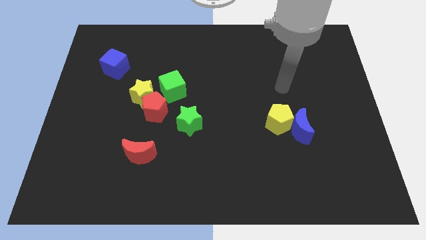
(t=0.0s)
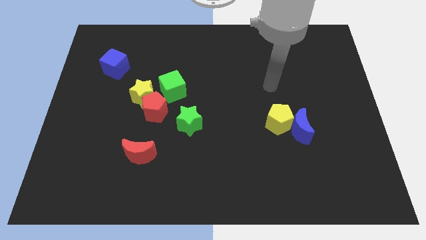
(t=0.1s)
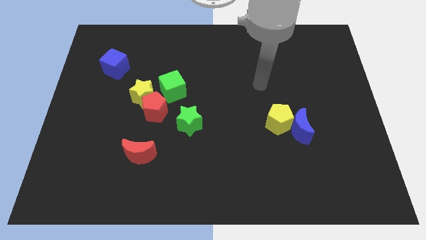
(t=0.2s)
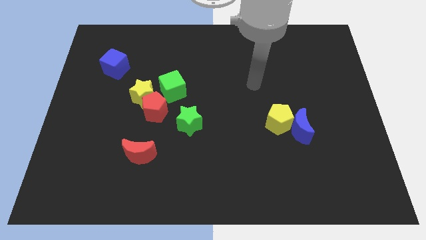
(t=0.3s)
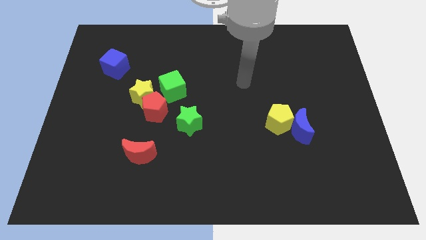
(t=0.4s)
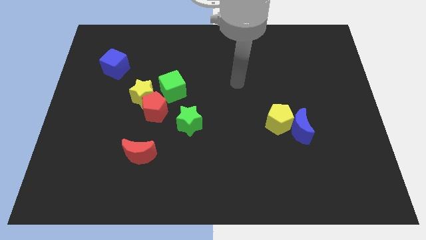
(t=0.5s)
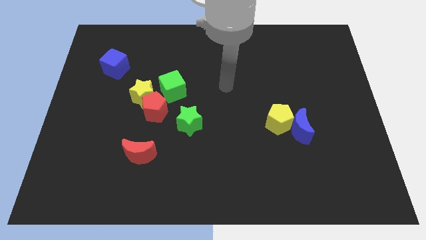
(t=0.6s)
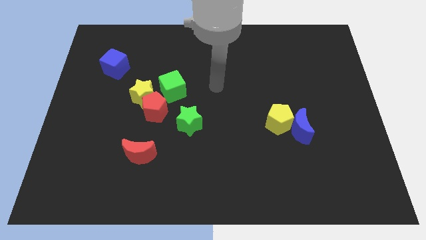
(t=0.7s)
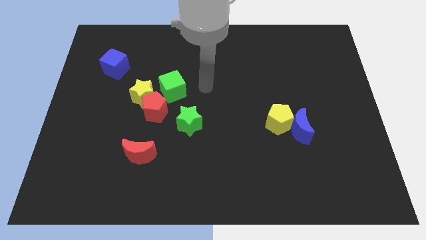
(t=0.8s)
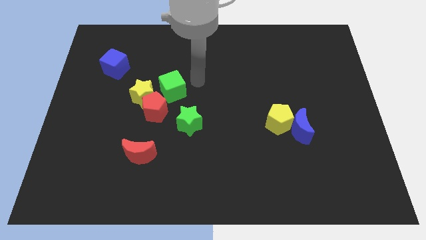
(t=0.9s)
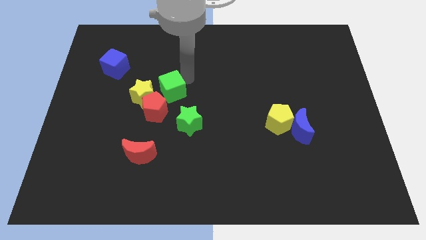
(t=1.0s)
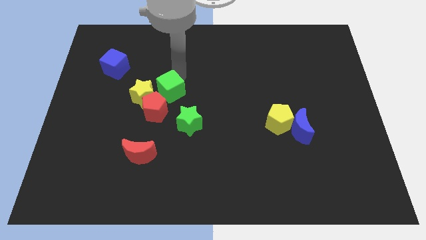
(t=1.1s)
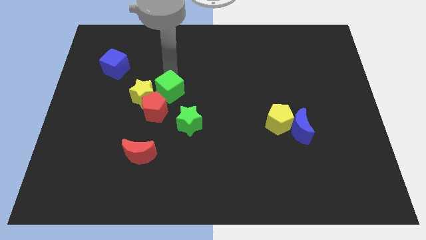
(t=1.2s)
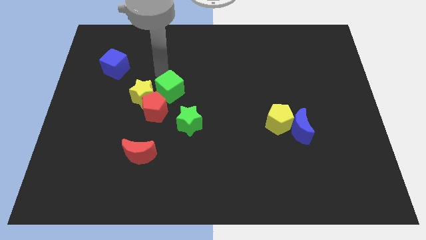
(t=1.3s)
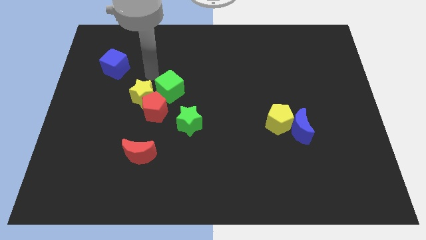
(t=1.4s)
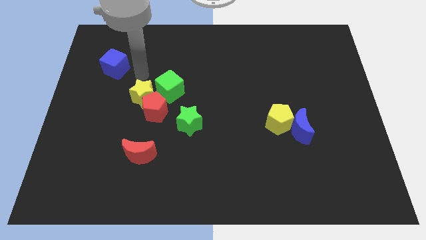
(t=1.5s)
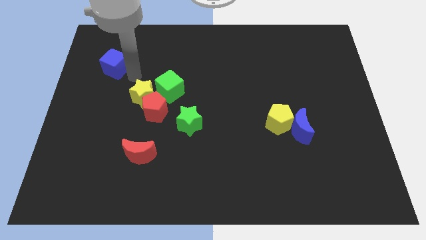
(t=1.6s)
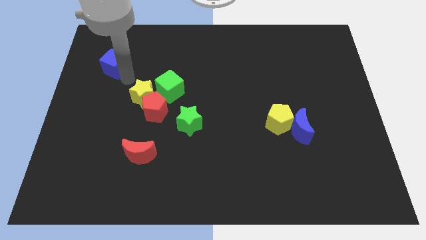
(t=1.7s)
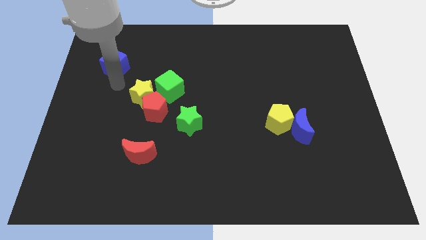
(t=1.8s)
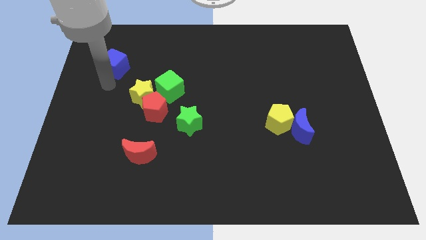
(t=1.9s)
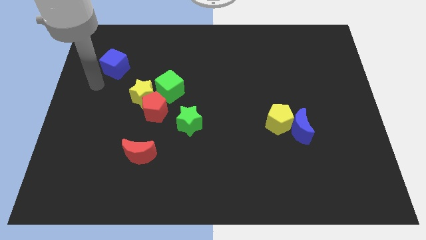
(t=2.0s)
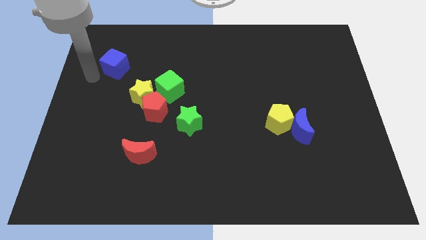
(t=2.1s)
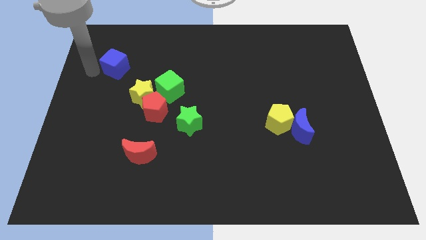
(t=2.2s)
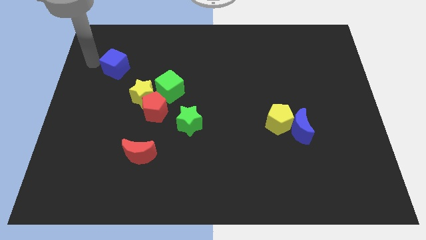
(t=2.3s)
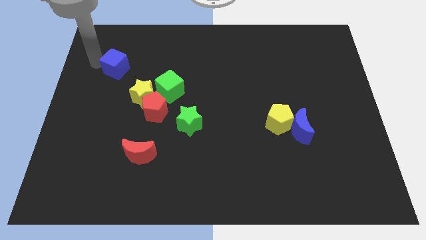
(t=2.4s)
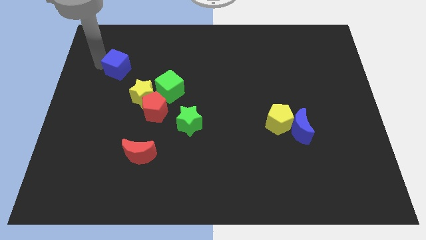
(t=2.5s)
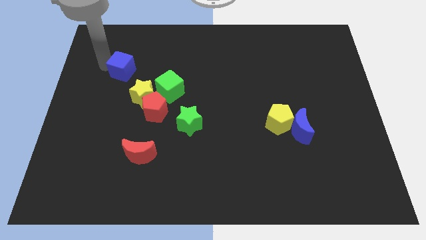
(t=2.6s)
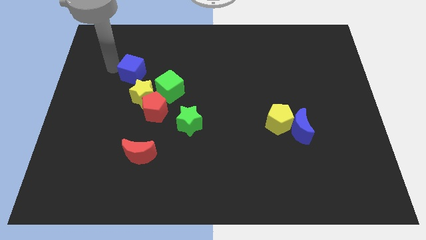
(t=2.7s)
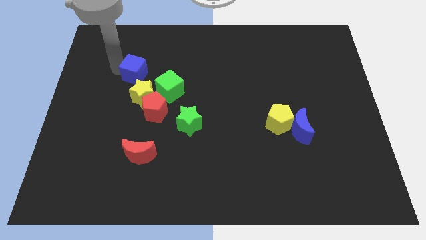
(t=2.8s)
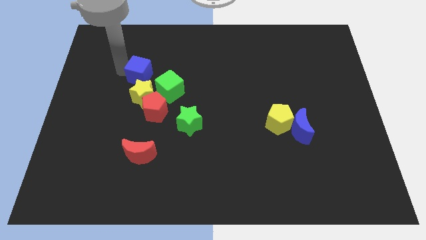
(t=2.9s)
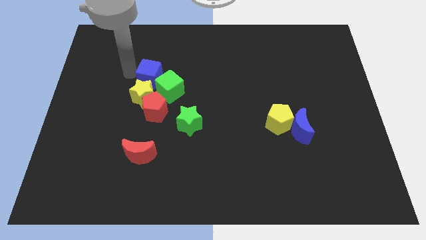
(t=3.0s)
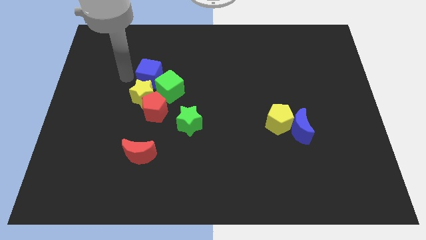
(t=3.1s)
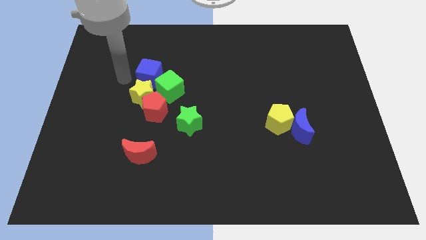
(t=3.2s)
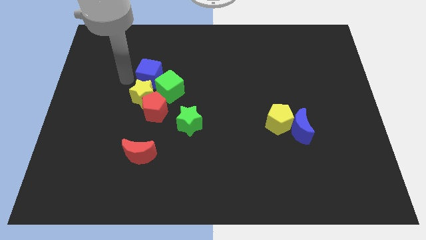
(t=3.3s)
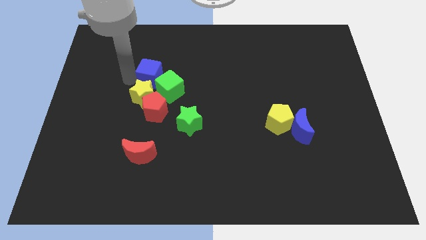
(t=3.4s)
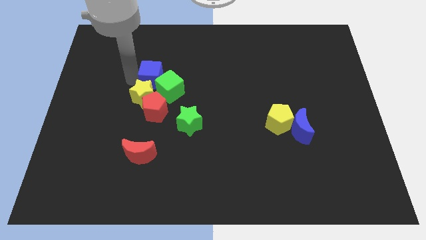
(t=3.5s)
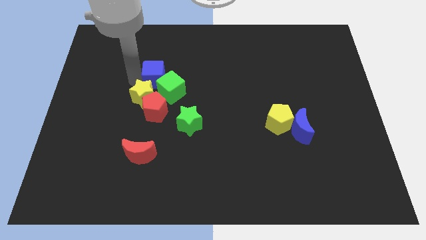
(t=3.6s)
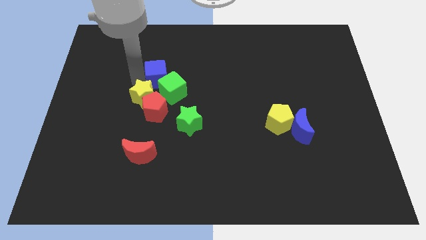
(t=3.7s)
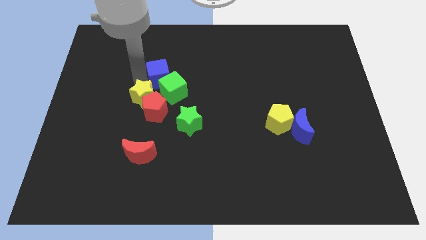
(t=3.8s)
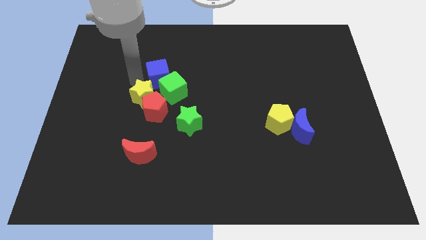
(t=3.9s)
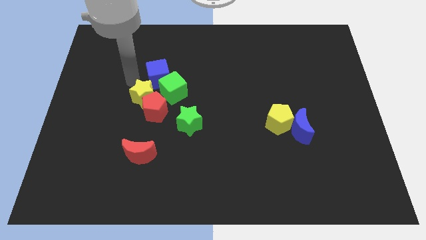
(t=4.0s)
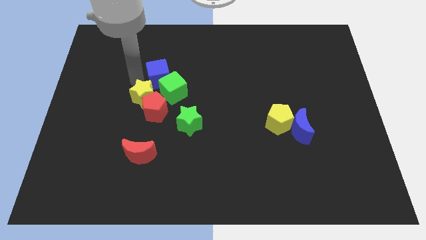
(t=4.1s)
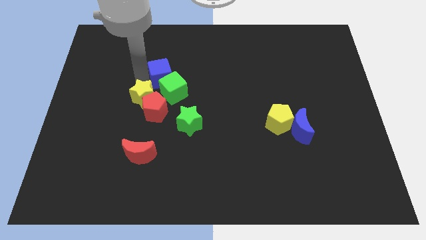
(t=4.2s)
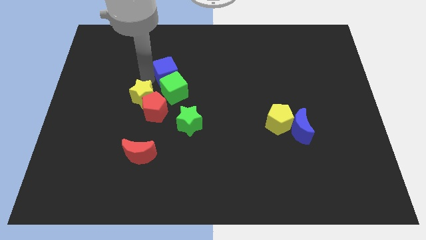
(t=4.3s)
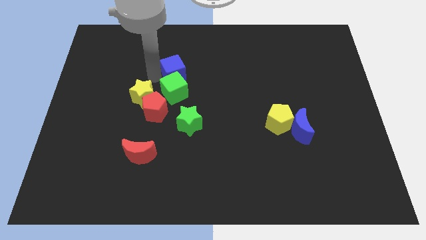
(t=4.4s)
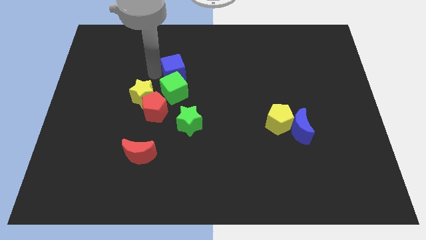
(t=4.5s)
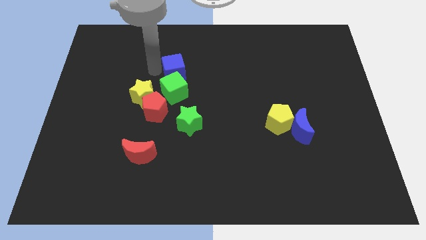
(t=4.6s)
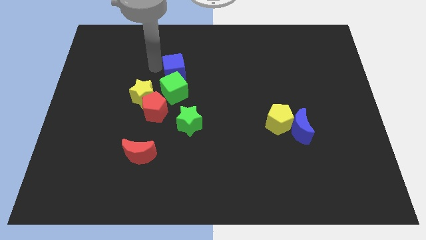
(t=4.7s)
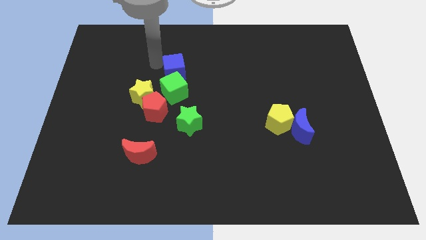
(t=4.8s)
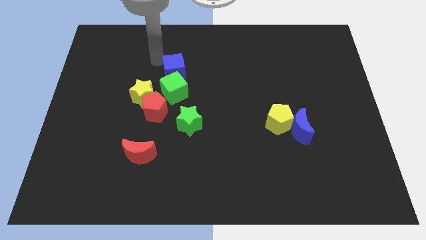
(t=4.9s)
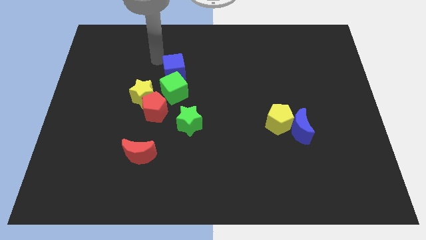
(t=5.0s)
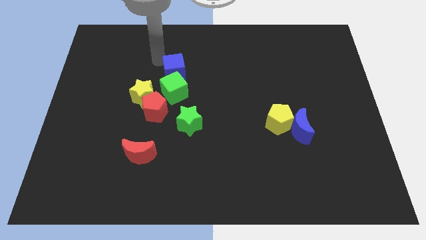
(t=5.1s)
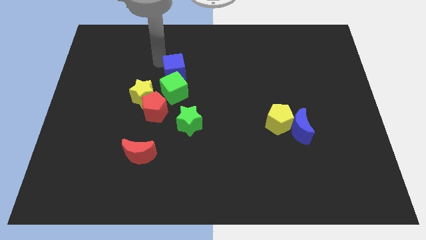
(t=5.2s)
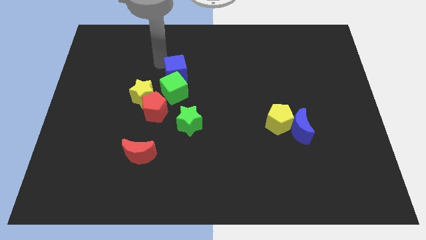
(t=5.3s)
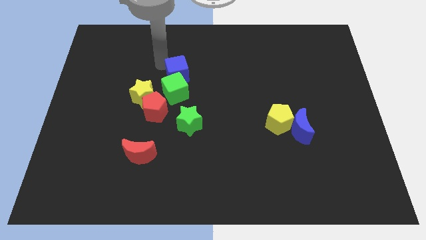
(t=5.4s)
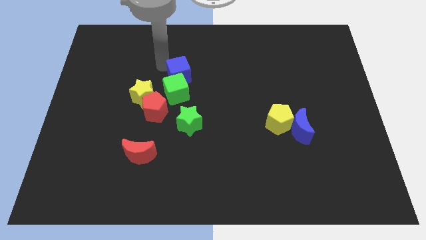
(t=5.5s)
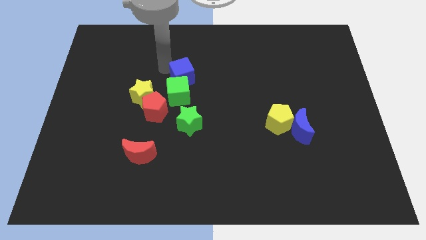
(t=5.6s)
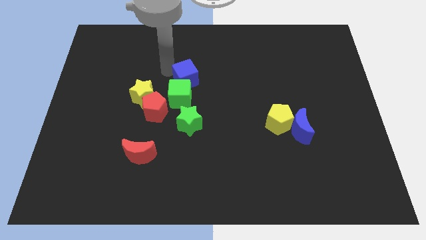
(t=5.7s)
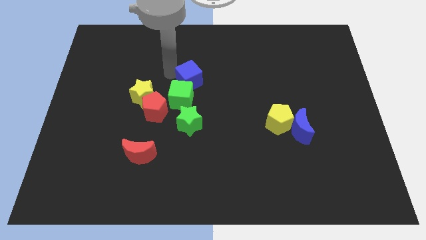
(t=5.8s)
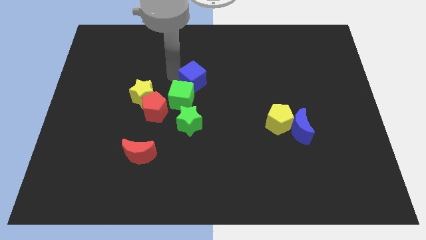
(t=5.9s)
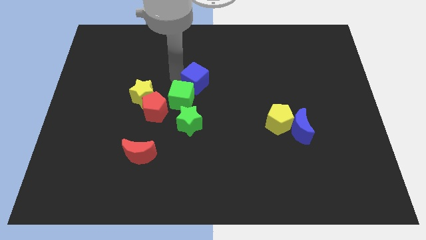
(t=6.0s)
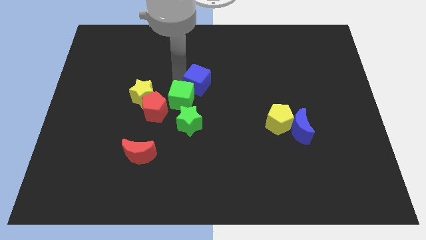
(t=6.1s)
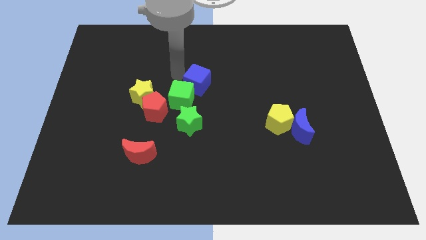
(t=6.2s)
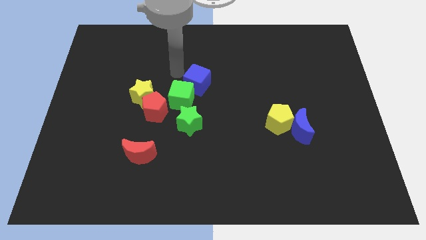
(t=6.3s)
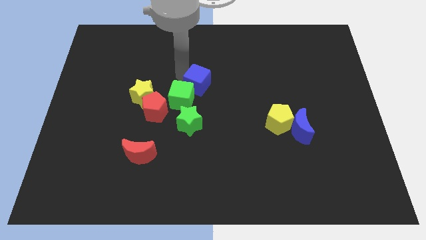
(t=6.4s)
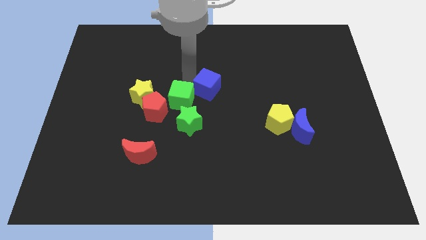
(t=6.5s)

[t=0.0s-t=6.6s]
put the blue cube to the right of the green cube

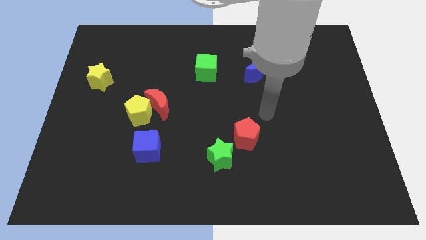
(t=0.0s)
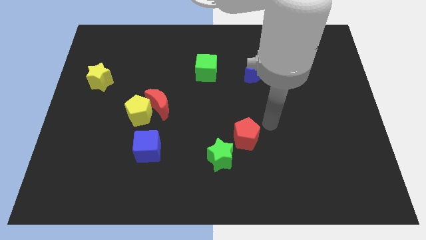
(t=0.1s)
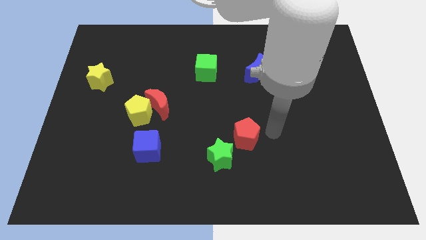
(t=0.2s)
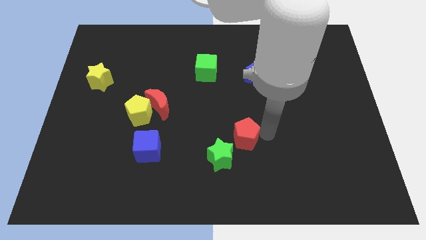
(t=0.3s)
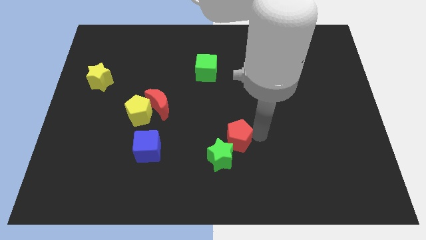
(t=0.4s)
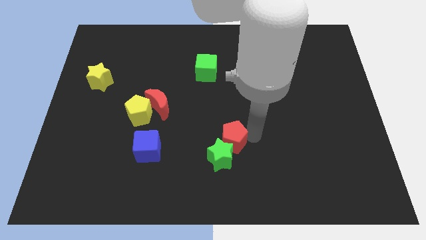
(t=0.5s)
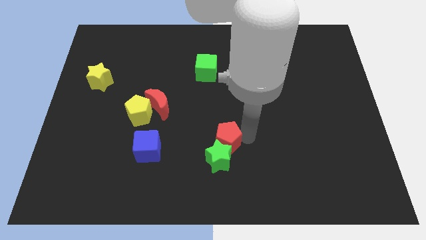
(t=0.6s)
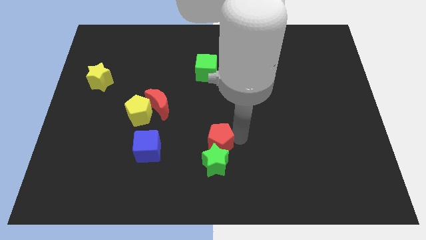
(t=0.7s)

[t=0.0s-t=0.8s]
move the red pentagon right of the blue cube

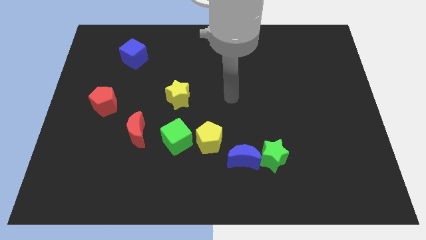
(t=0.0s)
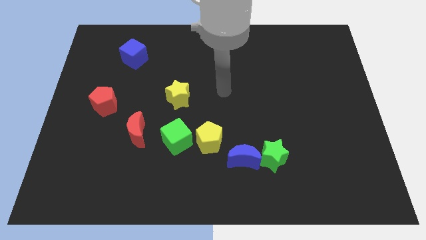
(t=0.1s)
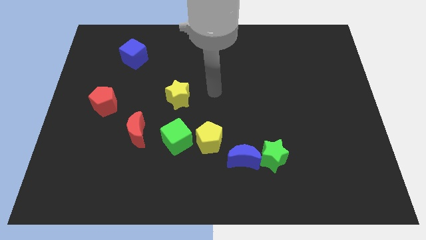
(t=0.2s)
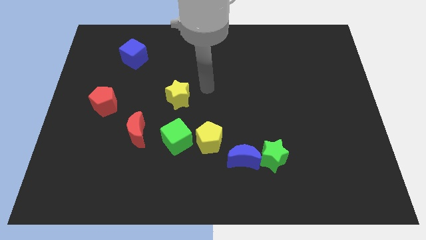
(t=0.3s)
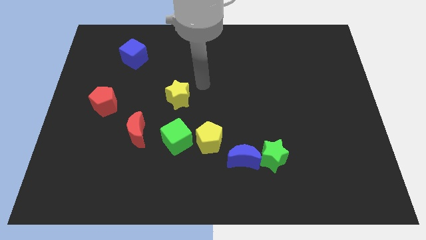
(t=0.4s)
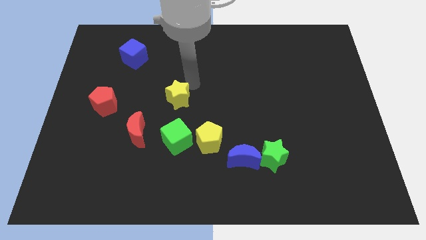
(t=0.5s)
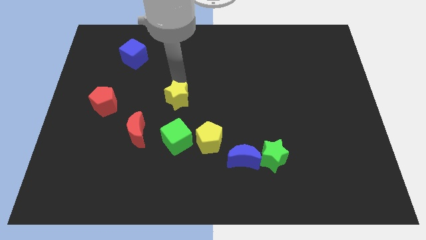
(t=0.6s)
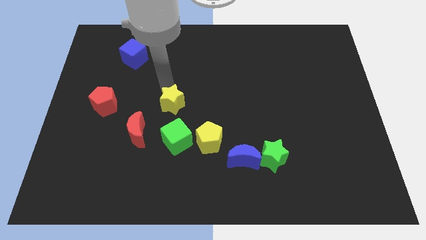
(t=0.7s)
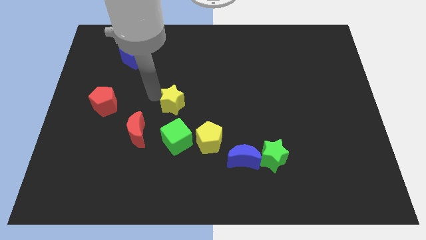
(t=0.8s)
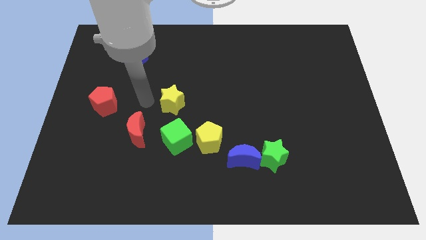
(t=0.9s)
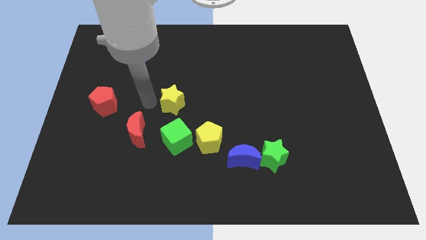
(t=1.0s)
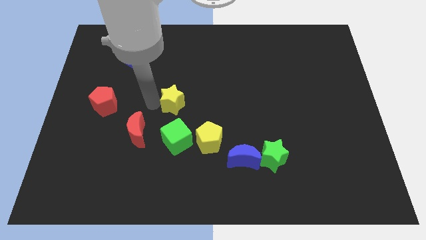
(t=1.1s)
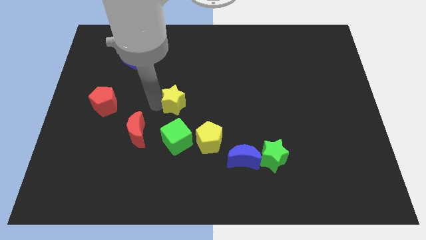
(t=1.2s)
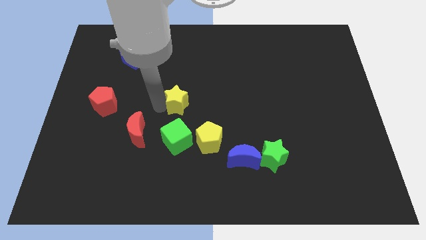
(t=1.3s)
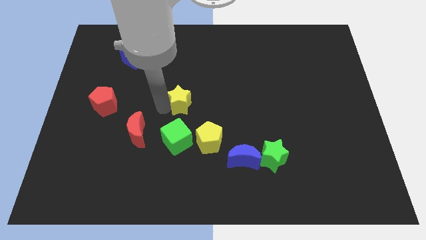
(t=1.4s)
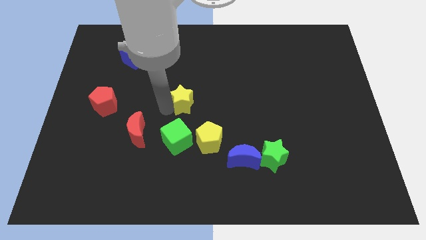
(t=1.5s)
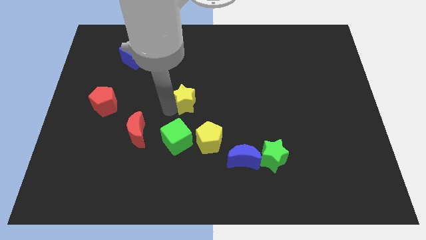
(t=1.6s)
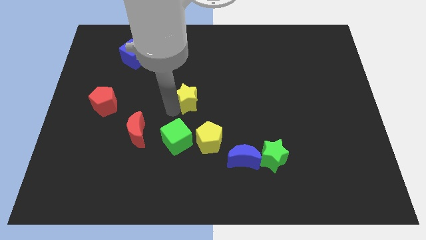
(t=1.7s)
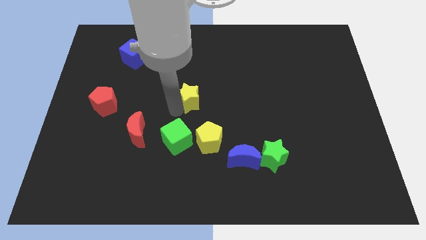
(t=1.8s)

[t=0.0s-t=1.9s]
slide the yellow star above the yellow pentagon
